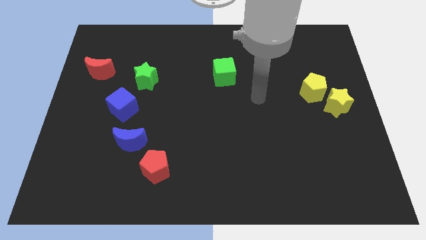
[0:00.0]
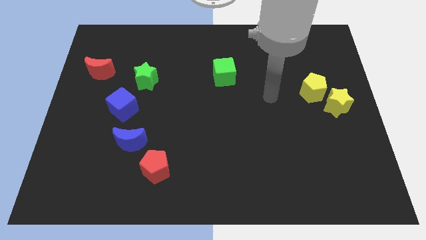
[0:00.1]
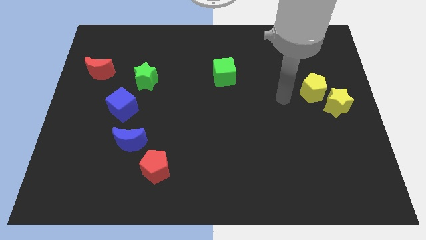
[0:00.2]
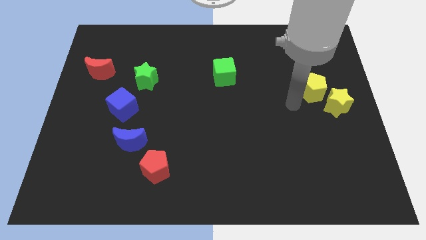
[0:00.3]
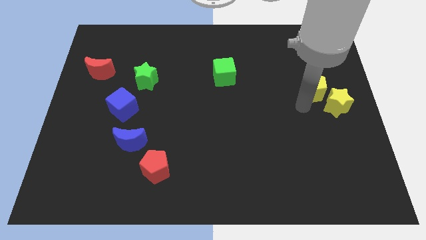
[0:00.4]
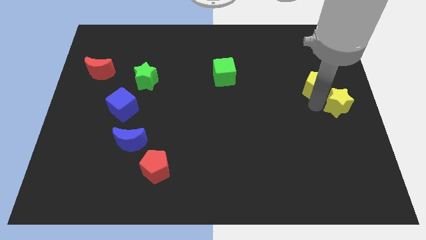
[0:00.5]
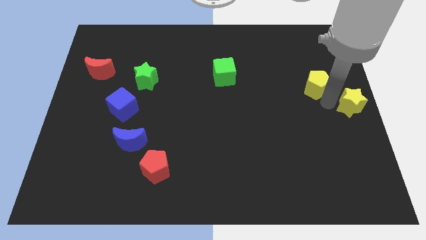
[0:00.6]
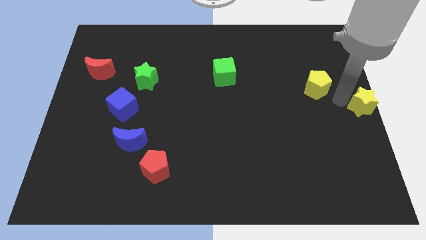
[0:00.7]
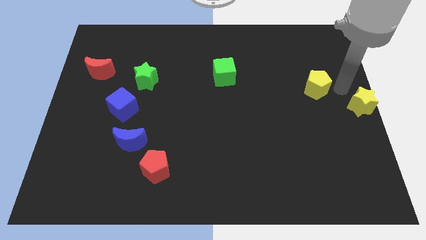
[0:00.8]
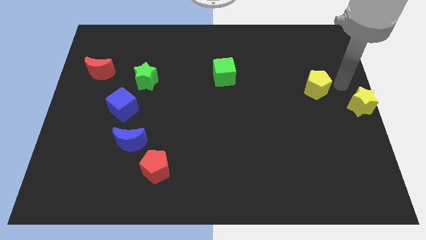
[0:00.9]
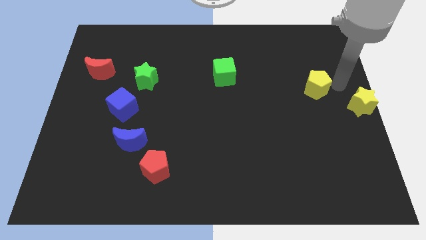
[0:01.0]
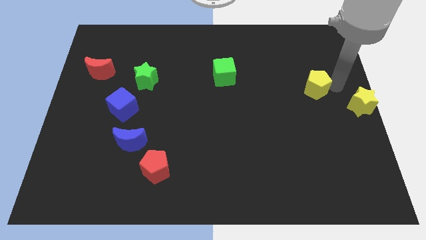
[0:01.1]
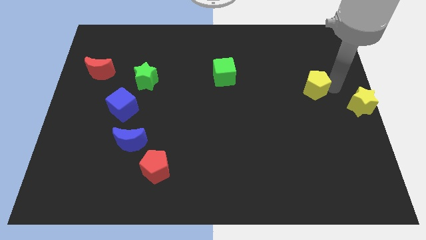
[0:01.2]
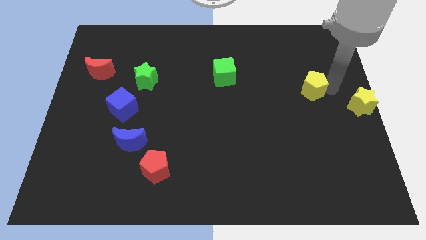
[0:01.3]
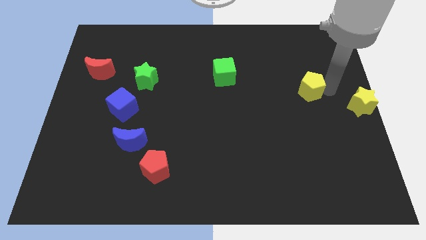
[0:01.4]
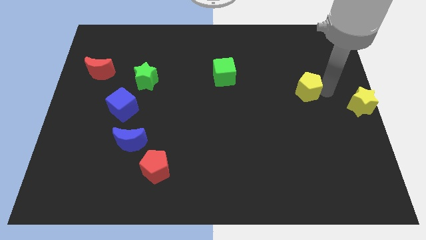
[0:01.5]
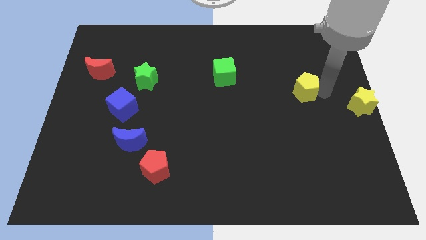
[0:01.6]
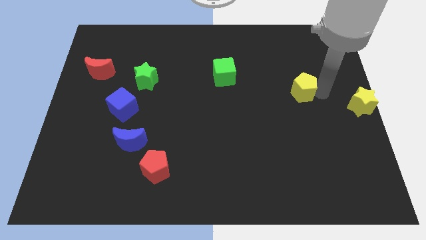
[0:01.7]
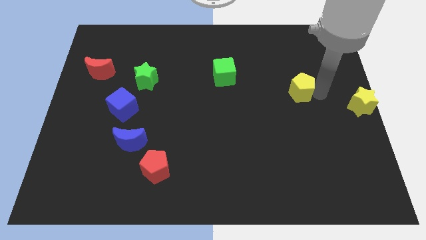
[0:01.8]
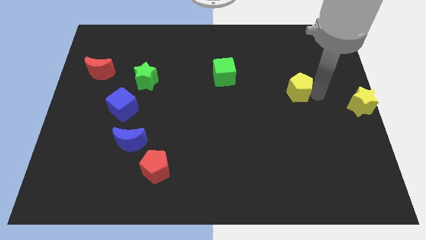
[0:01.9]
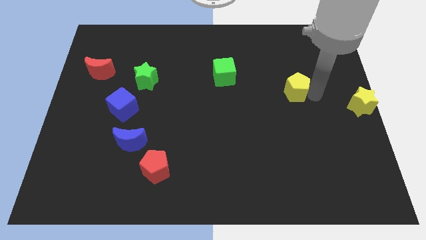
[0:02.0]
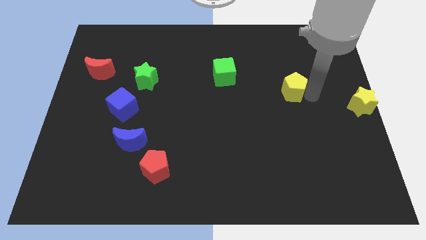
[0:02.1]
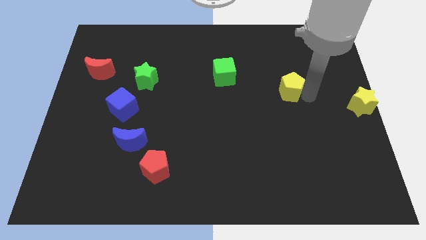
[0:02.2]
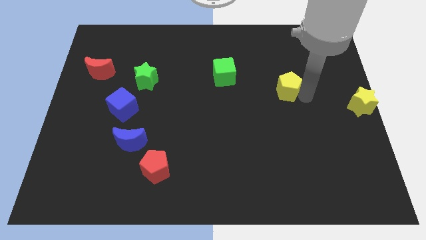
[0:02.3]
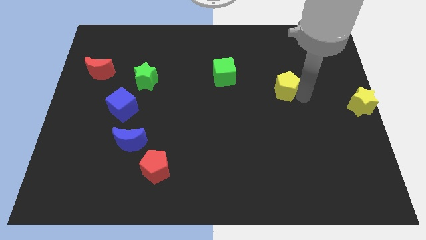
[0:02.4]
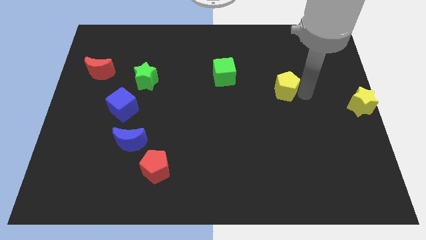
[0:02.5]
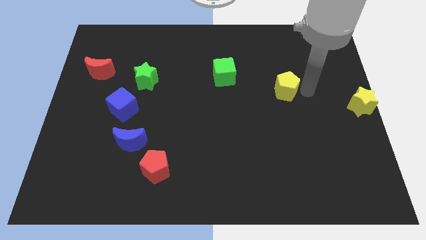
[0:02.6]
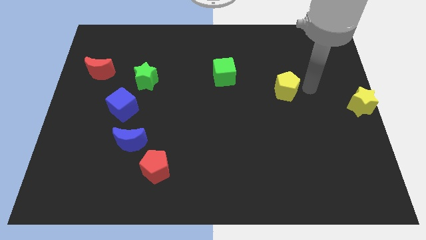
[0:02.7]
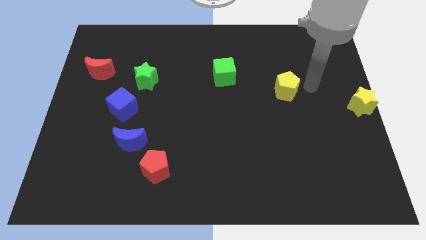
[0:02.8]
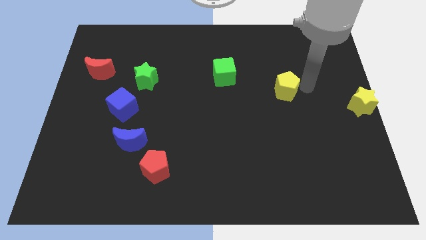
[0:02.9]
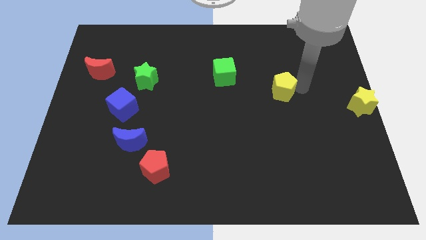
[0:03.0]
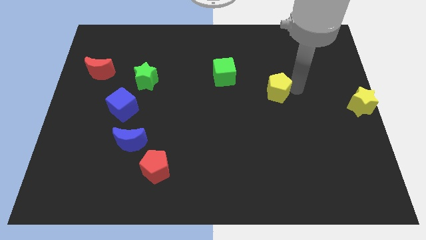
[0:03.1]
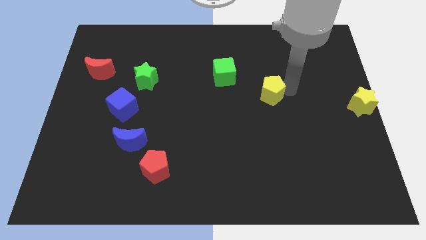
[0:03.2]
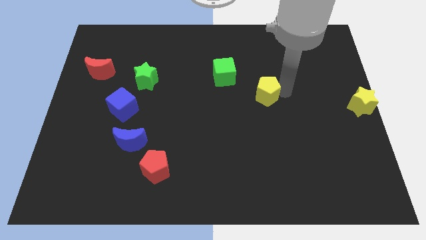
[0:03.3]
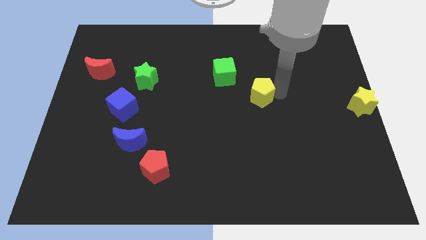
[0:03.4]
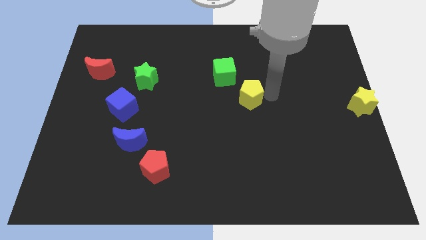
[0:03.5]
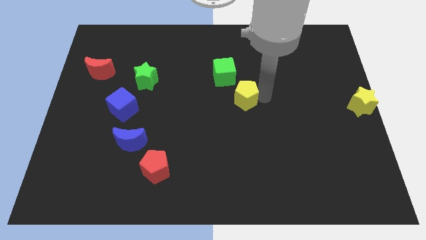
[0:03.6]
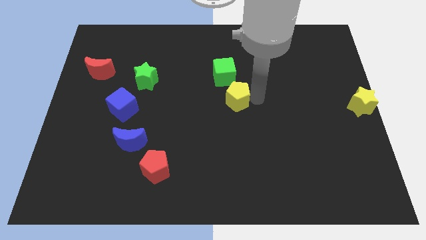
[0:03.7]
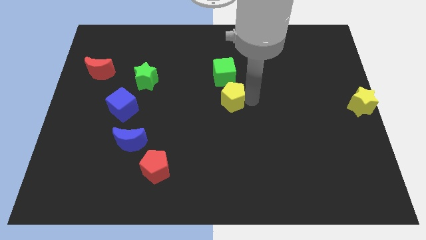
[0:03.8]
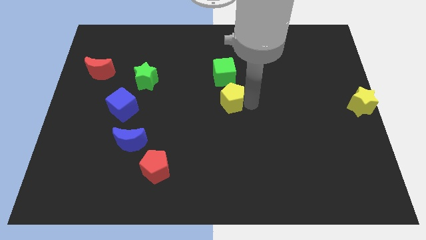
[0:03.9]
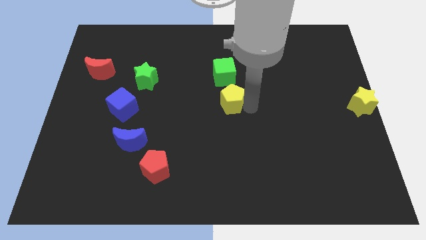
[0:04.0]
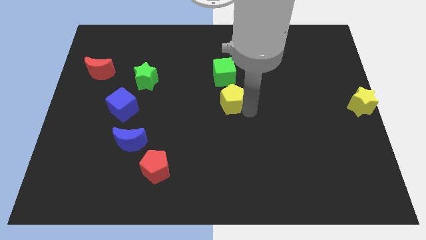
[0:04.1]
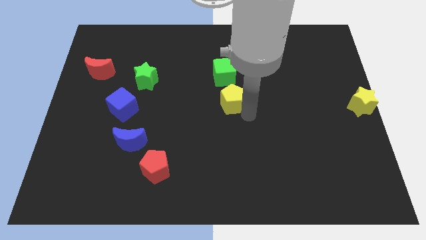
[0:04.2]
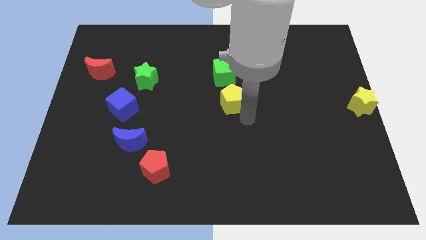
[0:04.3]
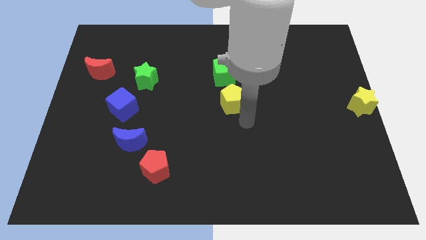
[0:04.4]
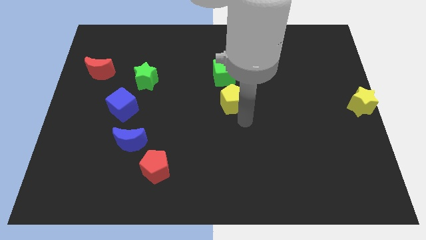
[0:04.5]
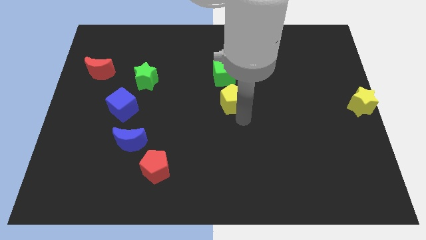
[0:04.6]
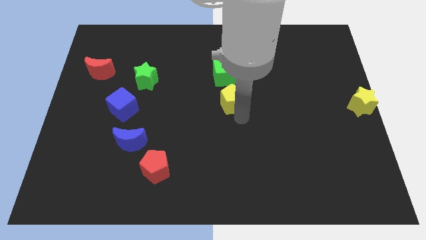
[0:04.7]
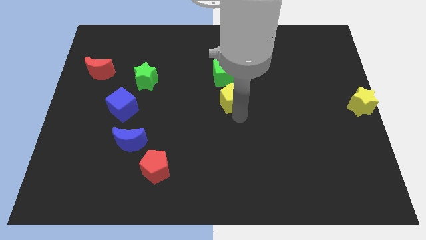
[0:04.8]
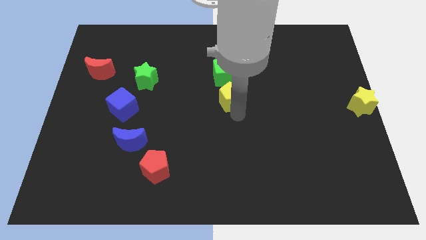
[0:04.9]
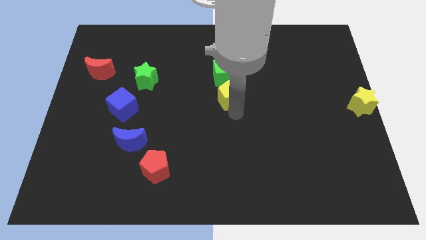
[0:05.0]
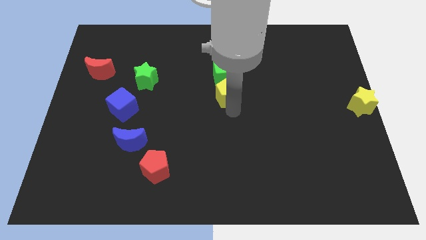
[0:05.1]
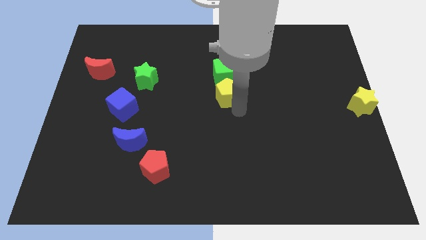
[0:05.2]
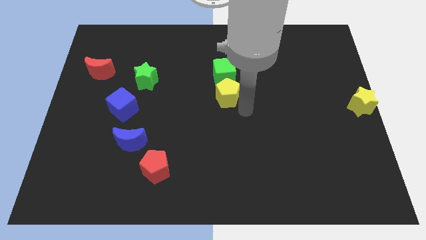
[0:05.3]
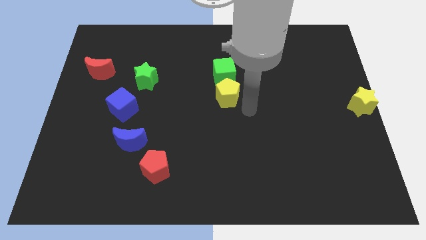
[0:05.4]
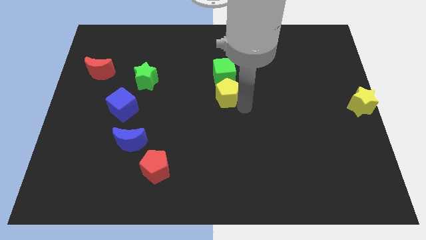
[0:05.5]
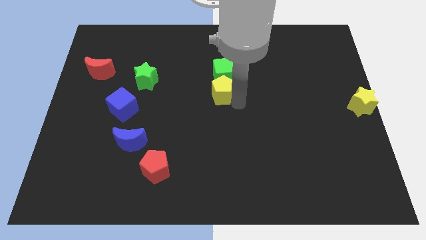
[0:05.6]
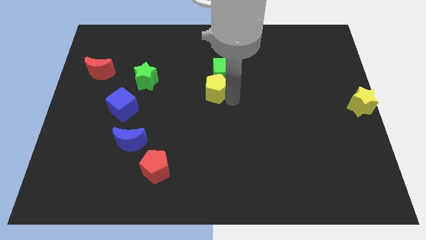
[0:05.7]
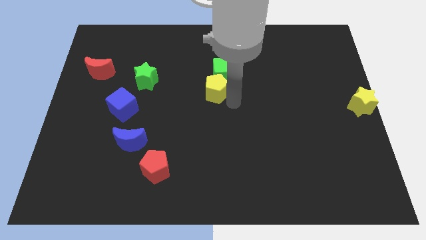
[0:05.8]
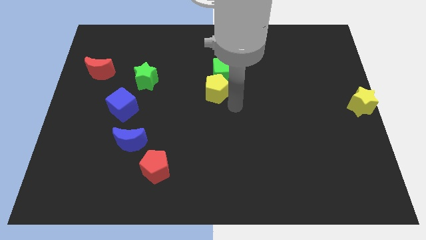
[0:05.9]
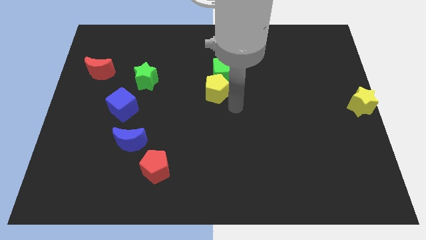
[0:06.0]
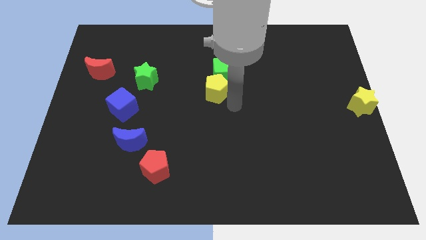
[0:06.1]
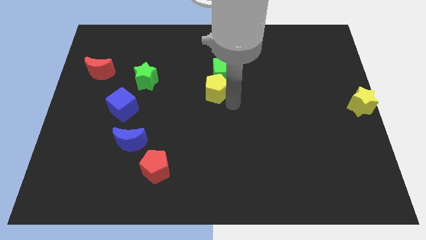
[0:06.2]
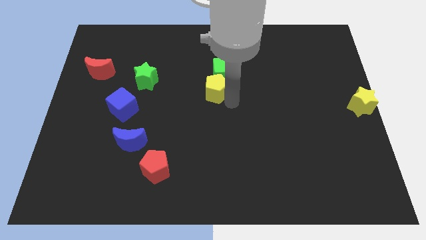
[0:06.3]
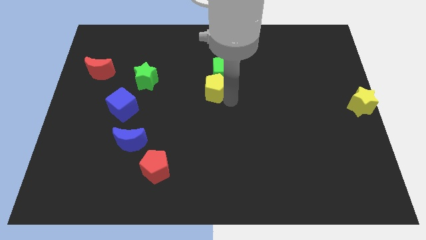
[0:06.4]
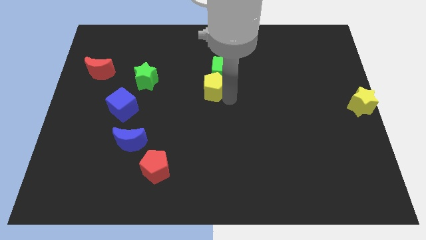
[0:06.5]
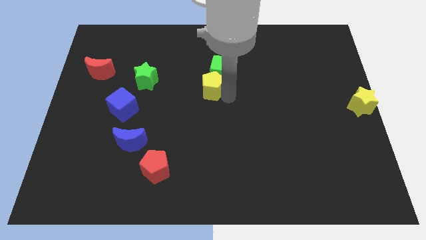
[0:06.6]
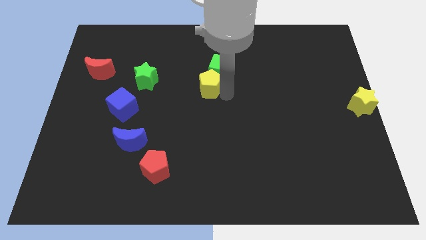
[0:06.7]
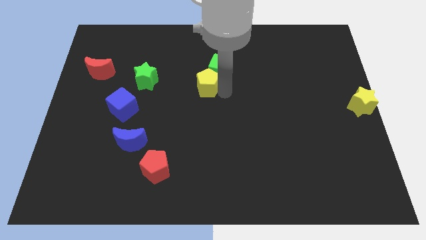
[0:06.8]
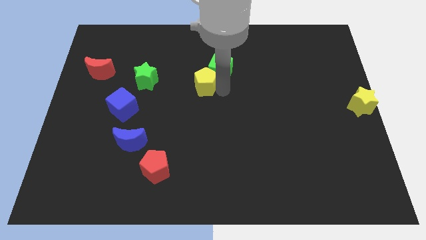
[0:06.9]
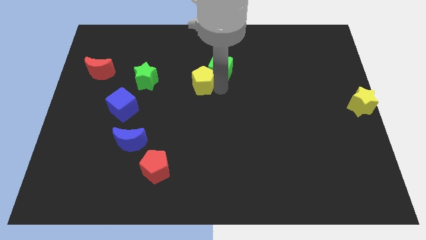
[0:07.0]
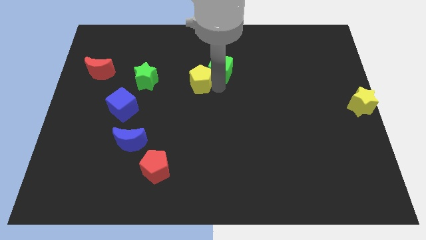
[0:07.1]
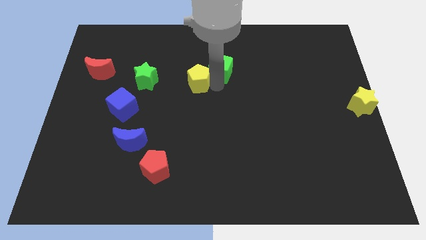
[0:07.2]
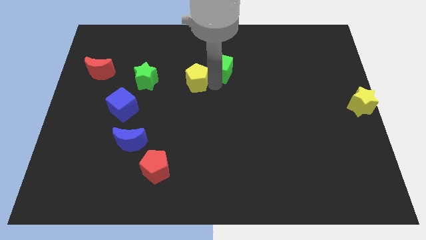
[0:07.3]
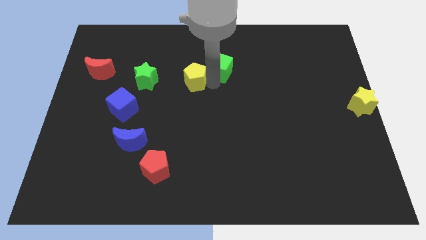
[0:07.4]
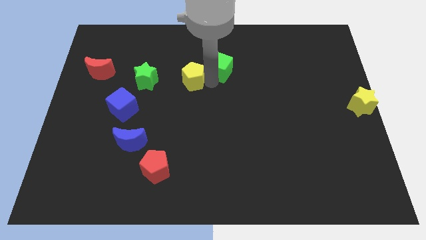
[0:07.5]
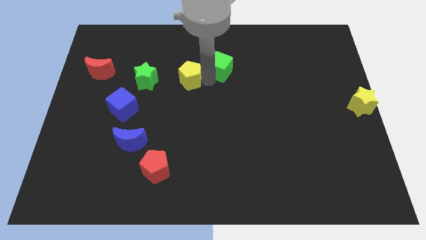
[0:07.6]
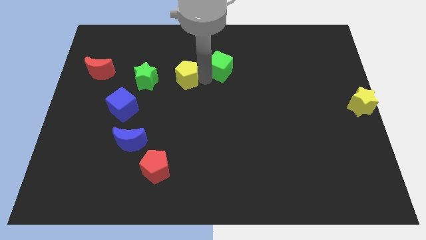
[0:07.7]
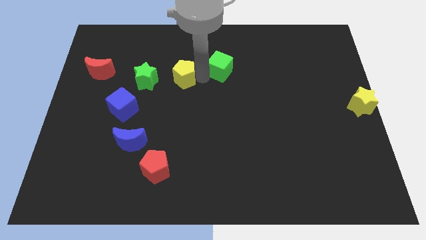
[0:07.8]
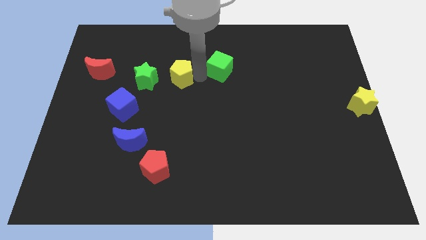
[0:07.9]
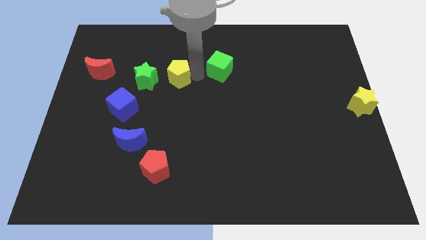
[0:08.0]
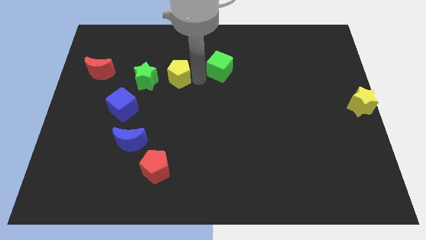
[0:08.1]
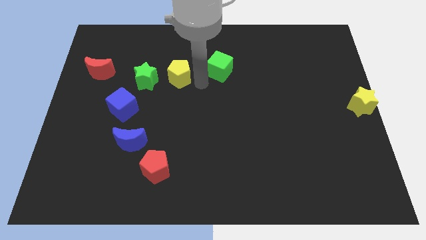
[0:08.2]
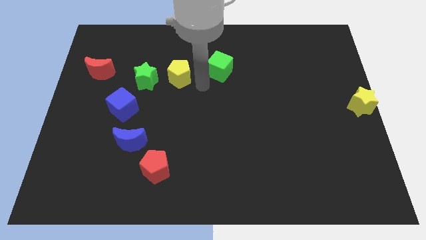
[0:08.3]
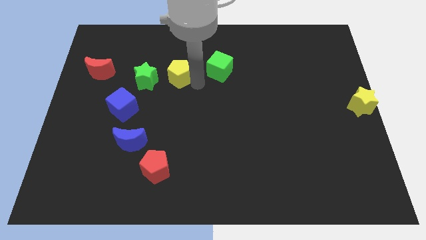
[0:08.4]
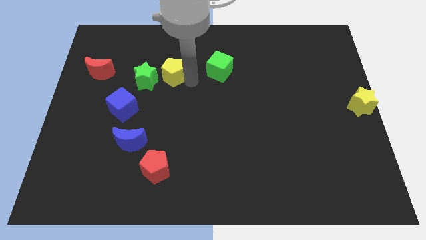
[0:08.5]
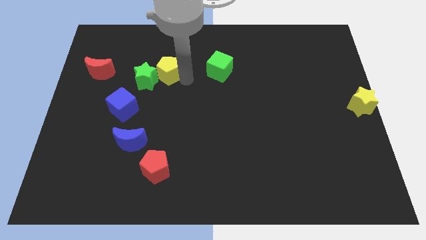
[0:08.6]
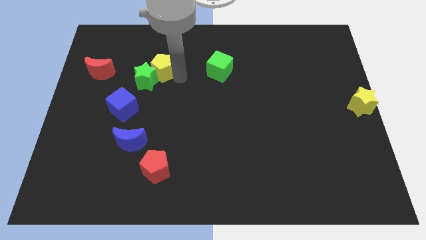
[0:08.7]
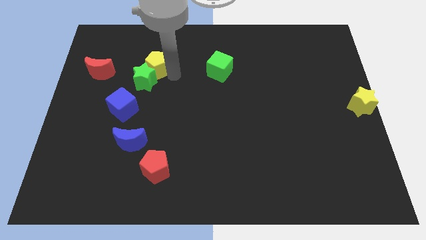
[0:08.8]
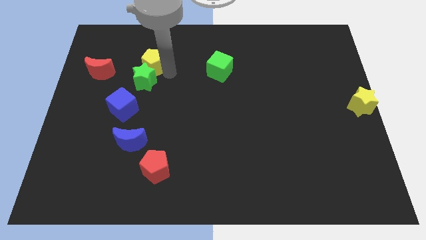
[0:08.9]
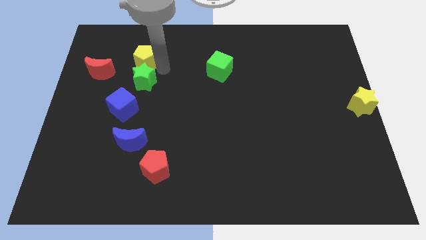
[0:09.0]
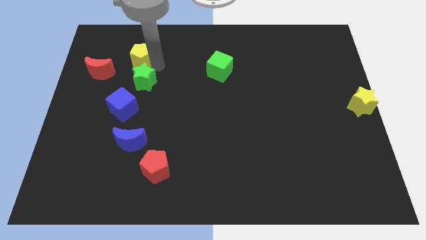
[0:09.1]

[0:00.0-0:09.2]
slide the yellow pentagon diagonally up and to the right of the red moon
